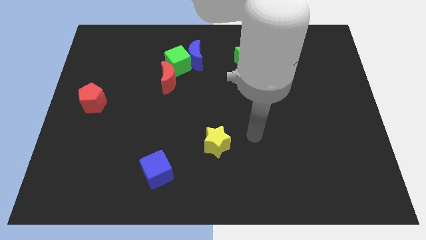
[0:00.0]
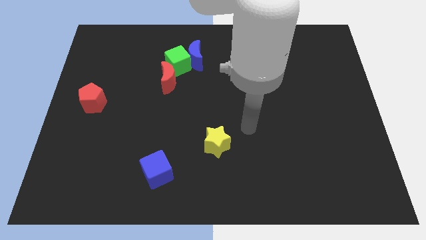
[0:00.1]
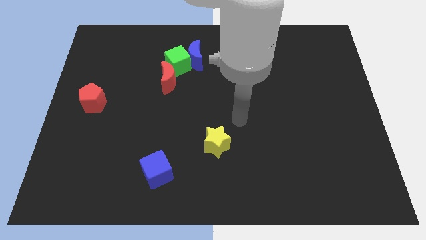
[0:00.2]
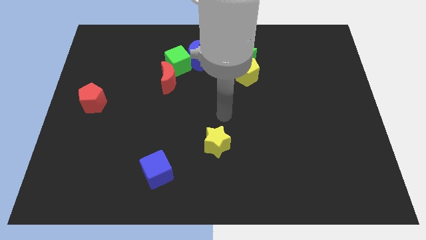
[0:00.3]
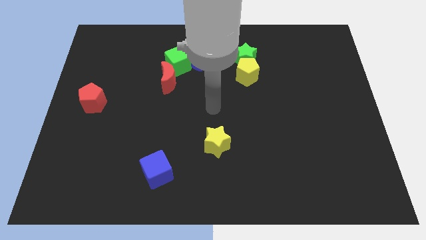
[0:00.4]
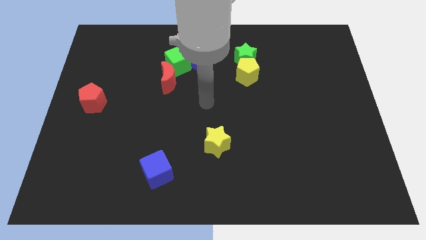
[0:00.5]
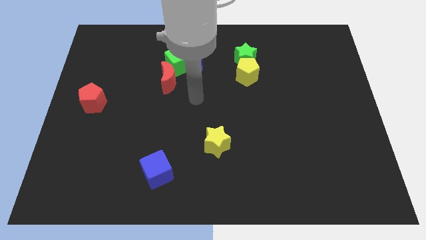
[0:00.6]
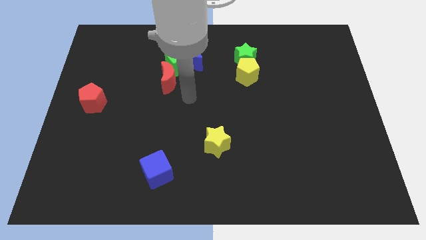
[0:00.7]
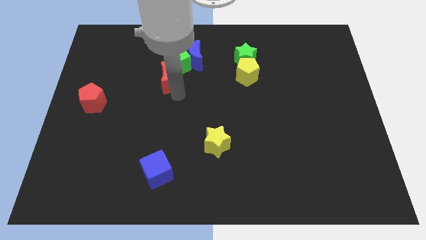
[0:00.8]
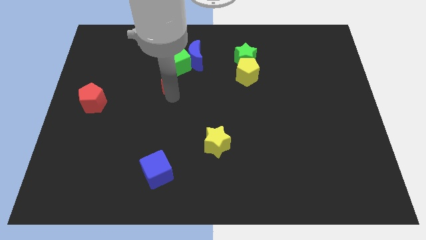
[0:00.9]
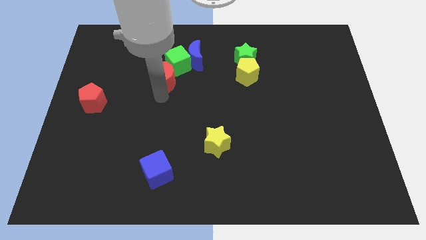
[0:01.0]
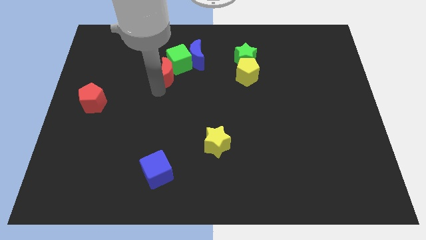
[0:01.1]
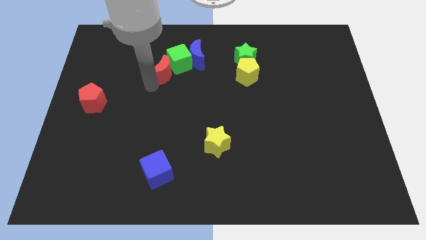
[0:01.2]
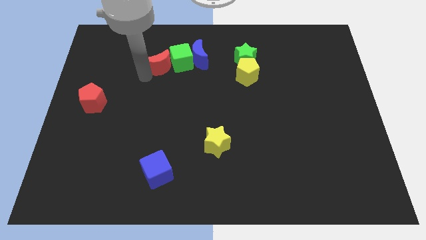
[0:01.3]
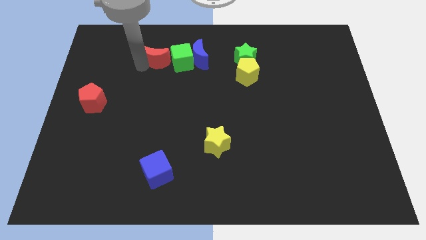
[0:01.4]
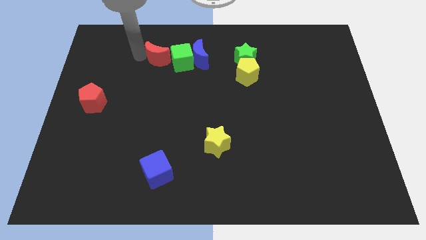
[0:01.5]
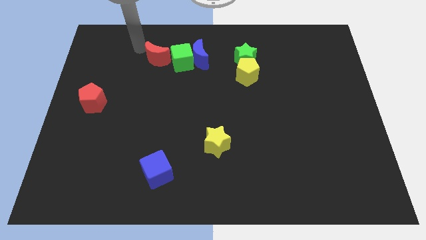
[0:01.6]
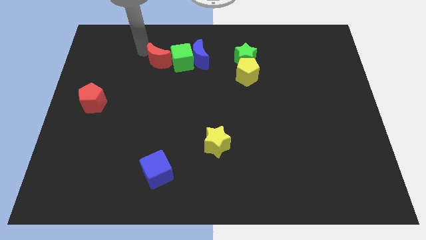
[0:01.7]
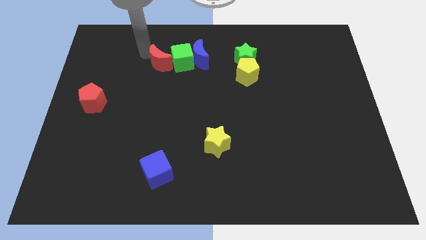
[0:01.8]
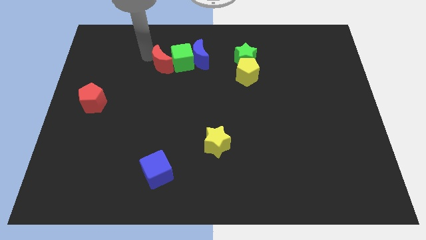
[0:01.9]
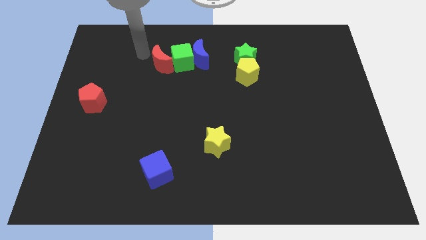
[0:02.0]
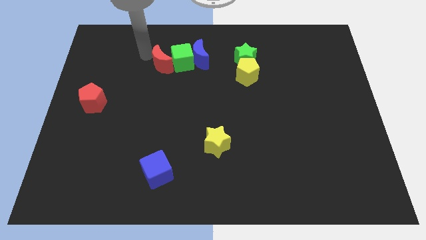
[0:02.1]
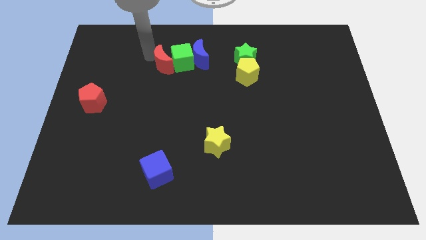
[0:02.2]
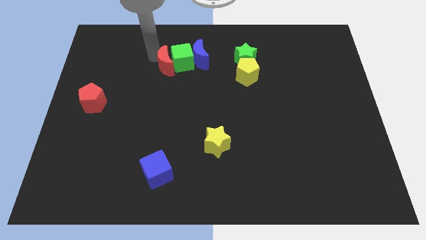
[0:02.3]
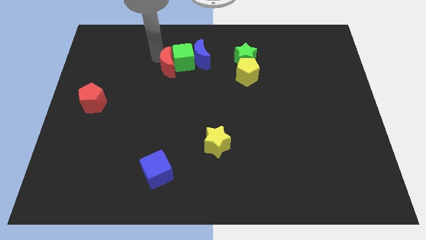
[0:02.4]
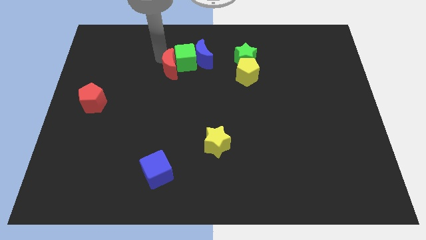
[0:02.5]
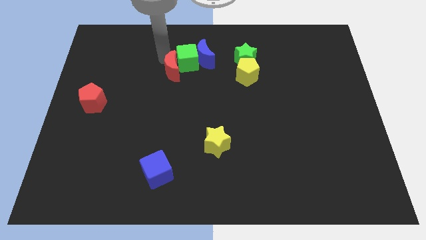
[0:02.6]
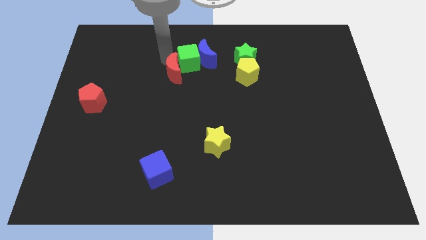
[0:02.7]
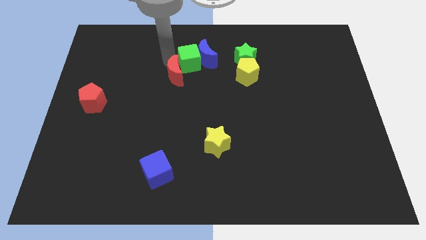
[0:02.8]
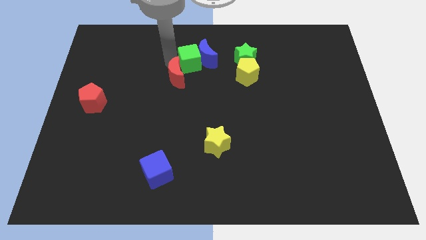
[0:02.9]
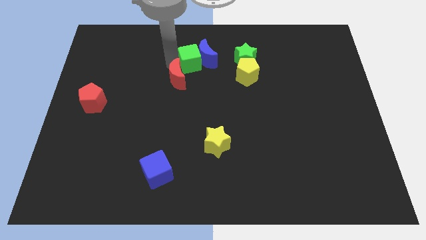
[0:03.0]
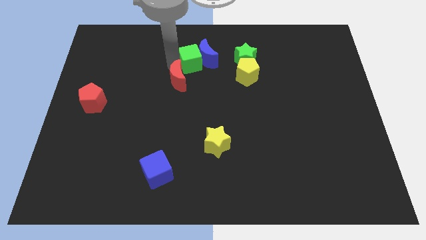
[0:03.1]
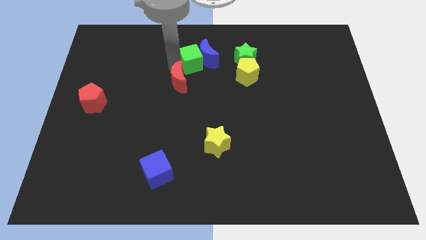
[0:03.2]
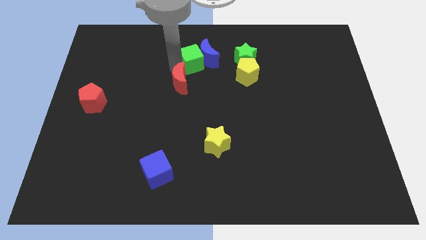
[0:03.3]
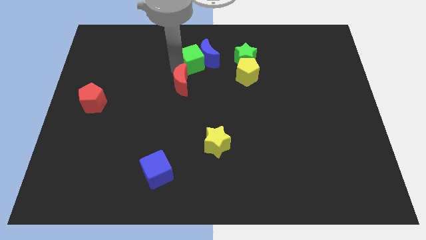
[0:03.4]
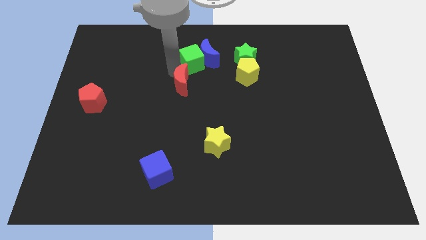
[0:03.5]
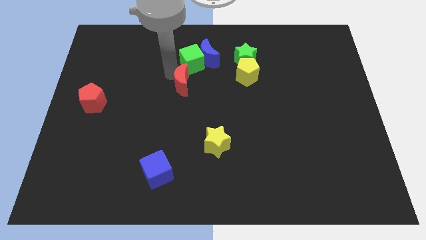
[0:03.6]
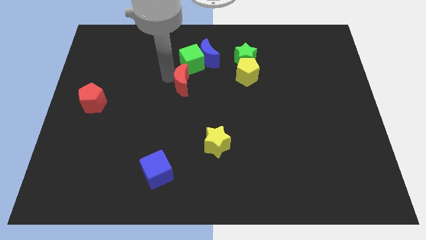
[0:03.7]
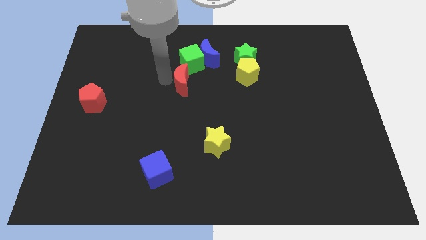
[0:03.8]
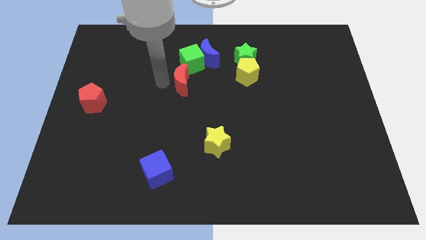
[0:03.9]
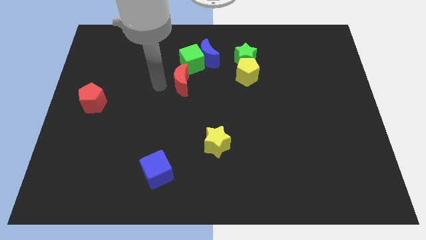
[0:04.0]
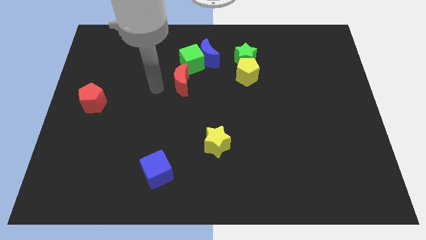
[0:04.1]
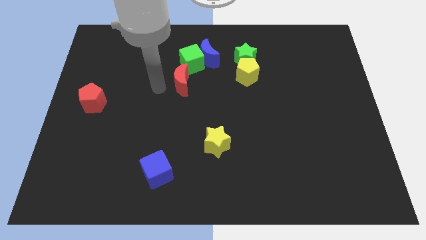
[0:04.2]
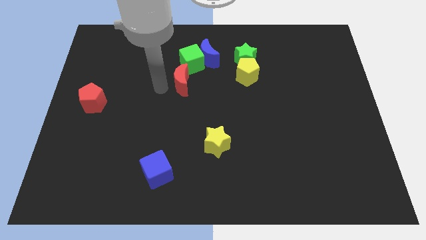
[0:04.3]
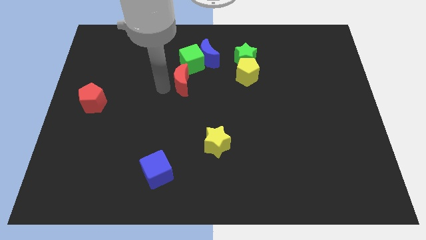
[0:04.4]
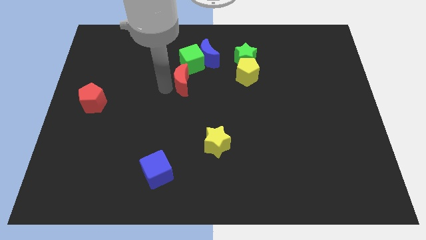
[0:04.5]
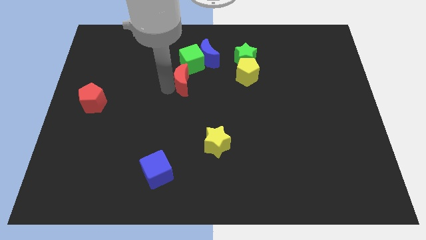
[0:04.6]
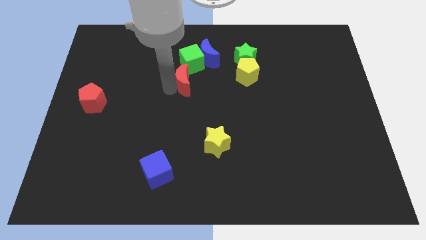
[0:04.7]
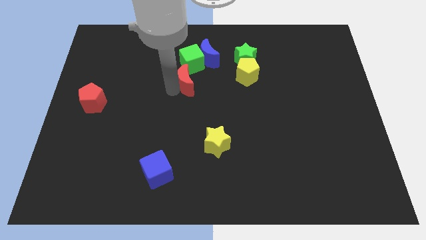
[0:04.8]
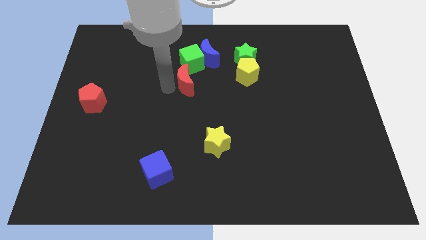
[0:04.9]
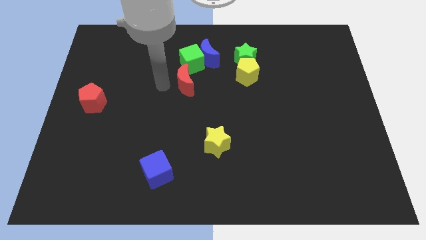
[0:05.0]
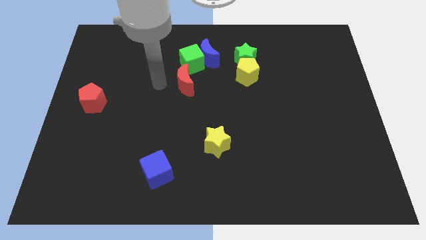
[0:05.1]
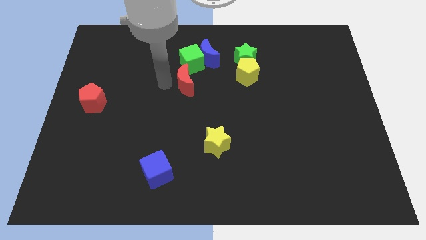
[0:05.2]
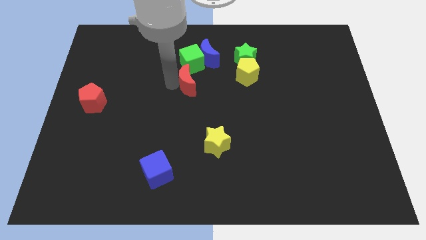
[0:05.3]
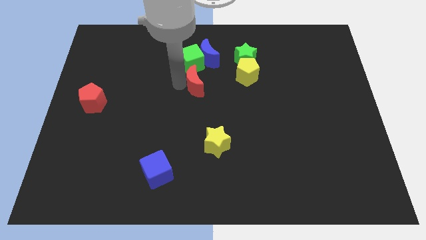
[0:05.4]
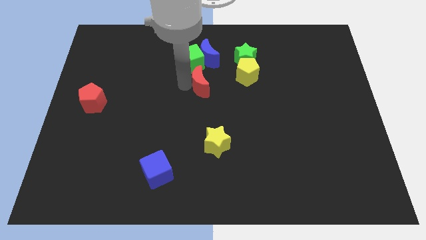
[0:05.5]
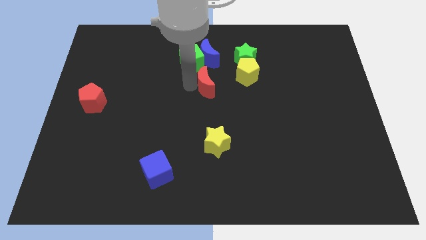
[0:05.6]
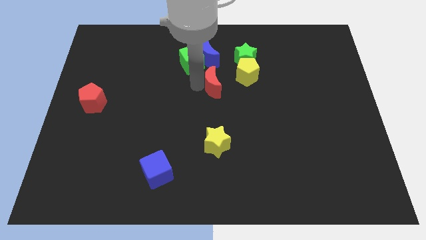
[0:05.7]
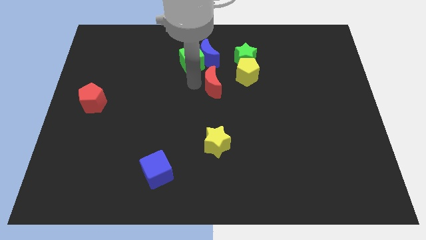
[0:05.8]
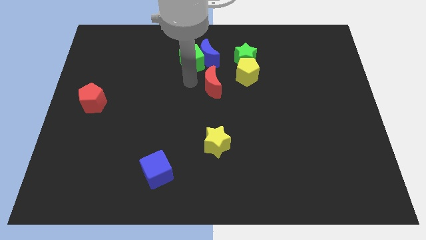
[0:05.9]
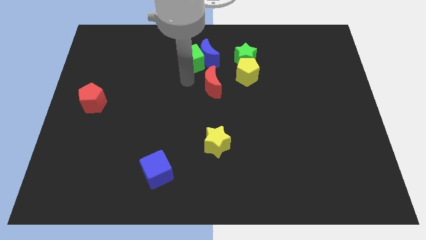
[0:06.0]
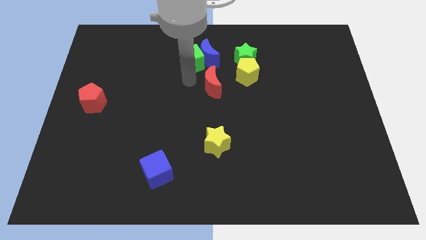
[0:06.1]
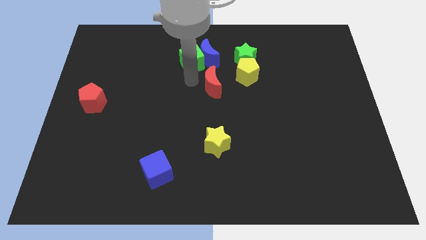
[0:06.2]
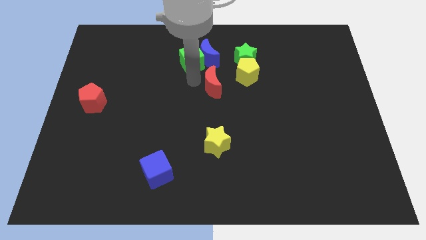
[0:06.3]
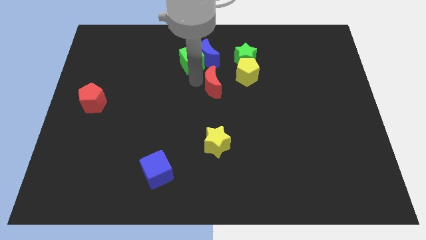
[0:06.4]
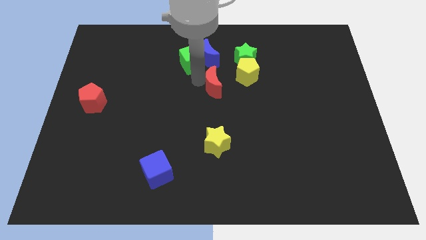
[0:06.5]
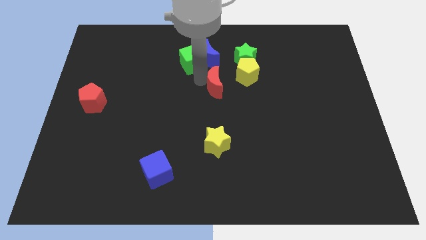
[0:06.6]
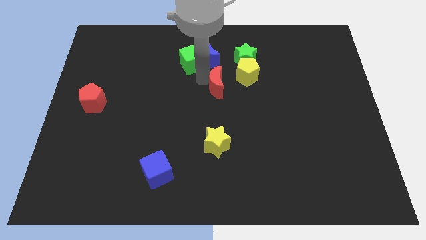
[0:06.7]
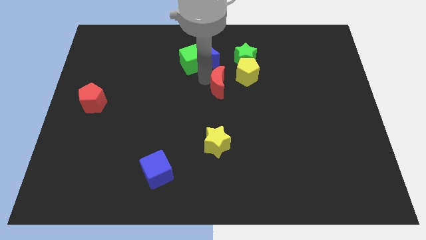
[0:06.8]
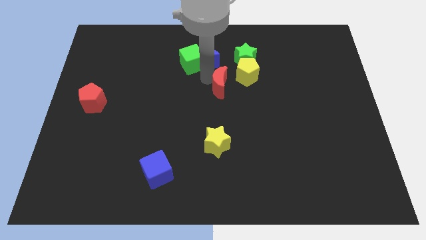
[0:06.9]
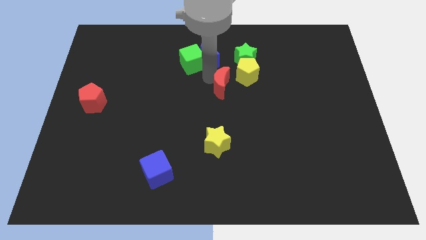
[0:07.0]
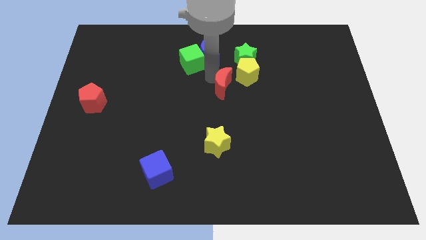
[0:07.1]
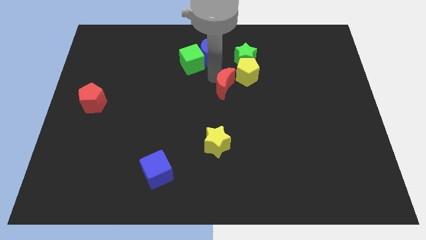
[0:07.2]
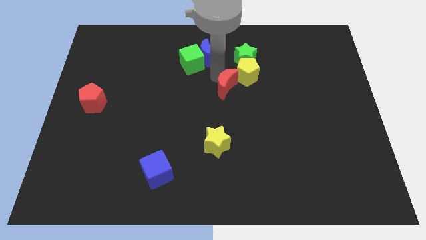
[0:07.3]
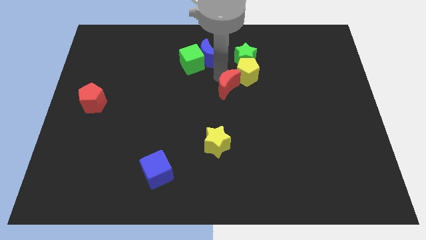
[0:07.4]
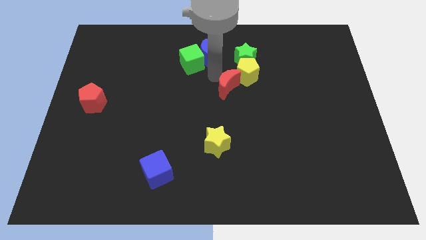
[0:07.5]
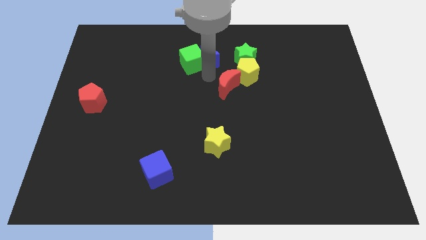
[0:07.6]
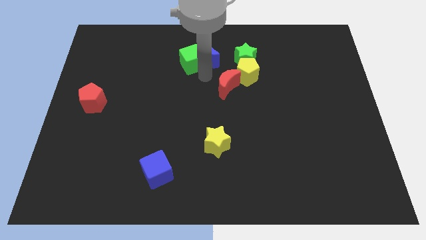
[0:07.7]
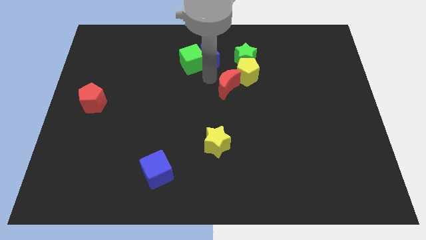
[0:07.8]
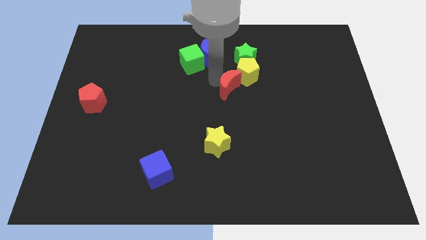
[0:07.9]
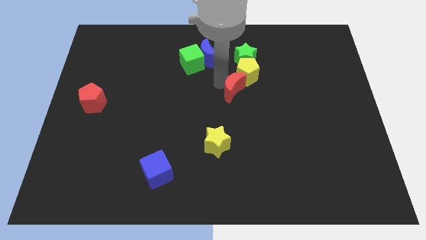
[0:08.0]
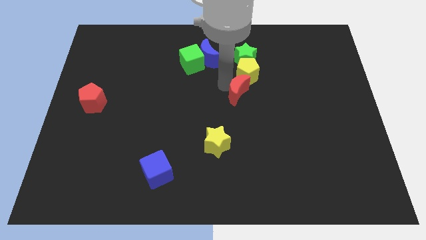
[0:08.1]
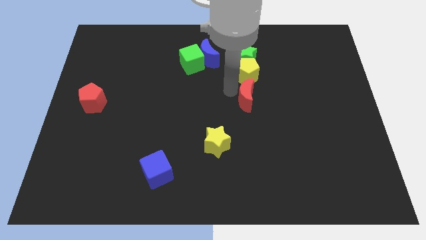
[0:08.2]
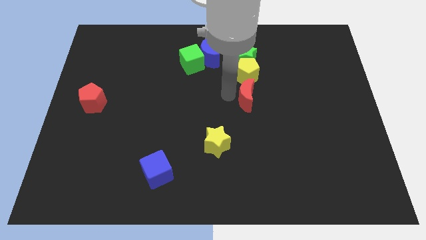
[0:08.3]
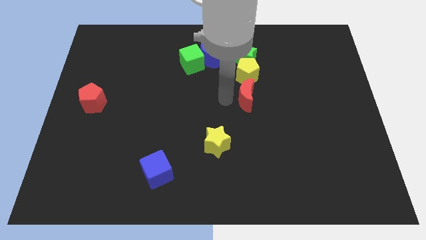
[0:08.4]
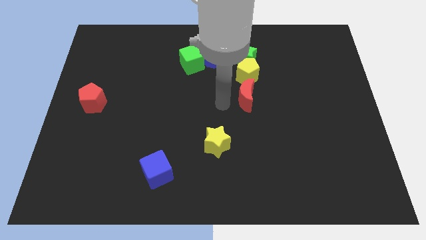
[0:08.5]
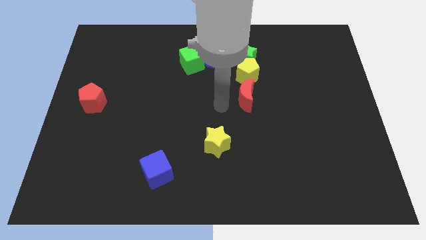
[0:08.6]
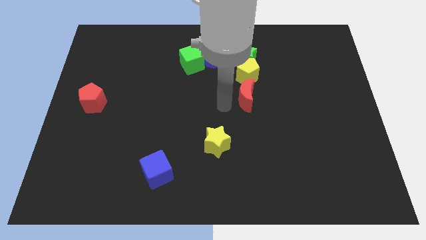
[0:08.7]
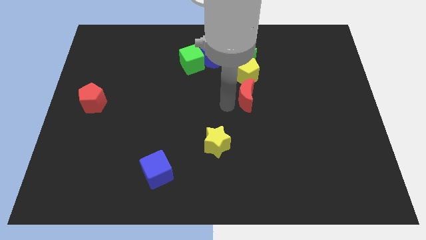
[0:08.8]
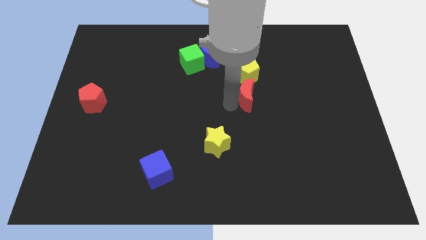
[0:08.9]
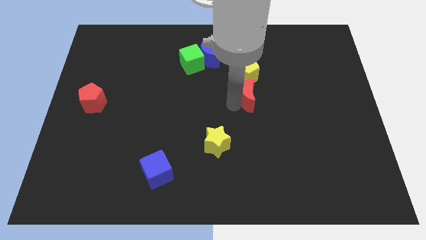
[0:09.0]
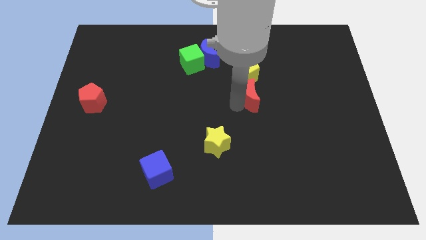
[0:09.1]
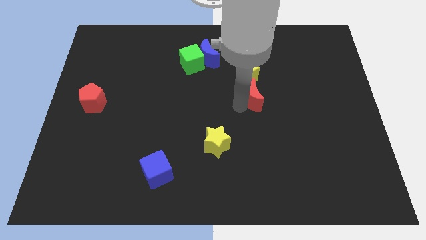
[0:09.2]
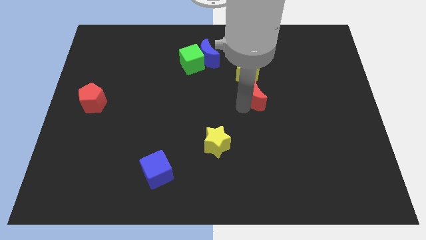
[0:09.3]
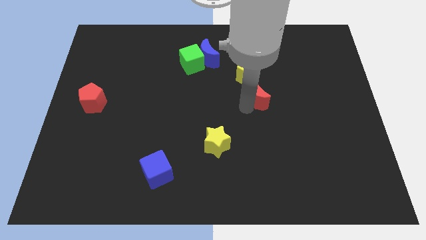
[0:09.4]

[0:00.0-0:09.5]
push the red moon to the right
